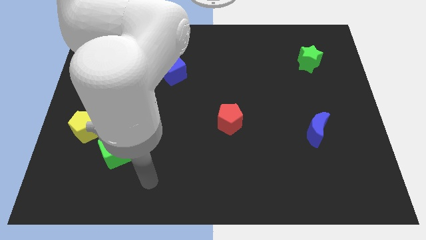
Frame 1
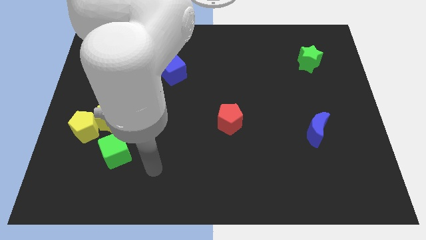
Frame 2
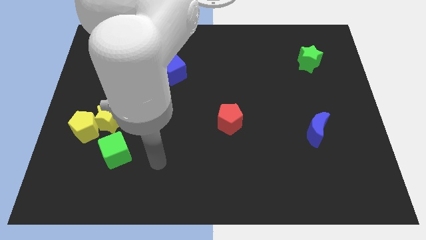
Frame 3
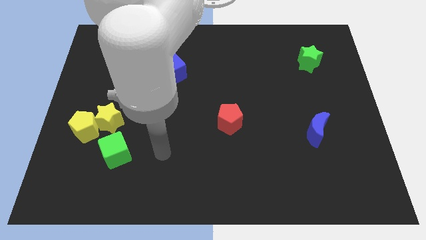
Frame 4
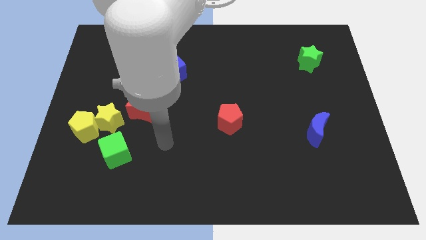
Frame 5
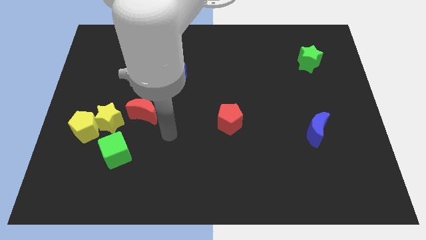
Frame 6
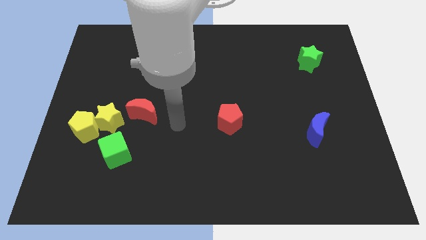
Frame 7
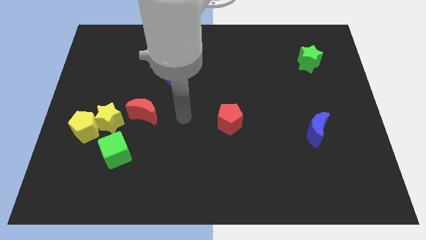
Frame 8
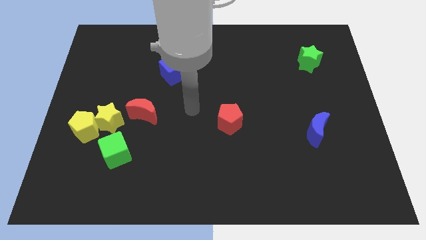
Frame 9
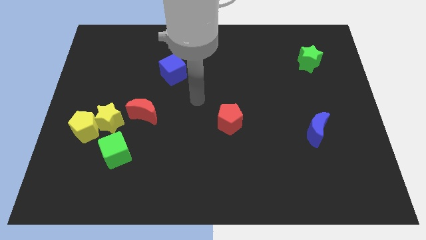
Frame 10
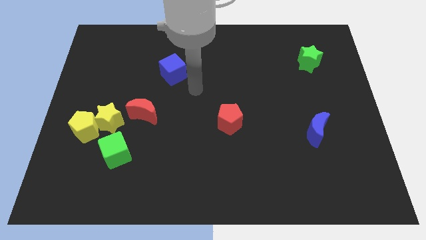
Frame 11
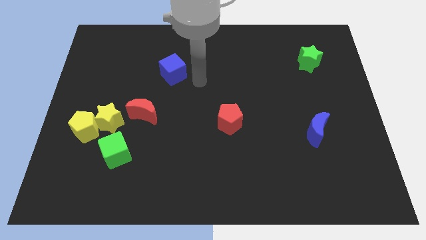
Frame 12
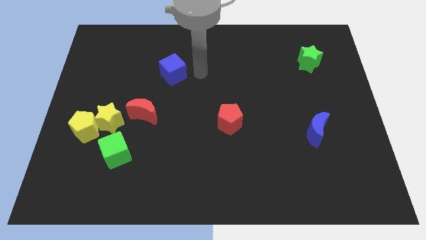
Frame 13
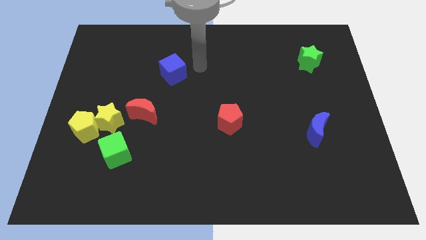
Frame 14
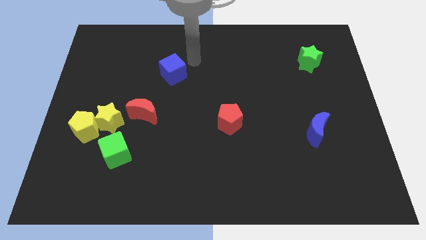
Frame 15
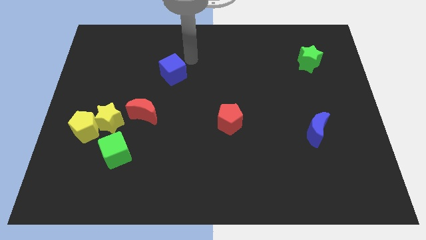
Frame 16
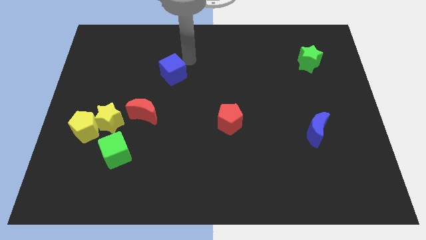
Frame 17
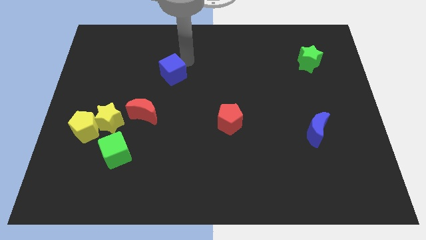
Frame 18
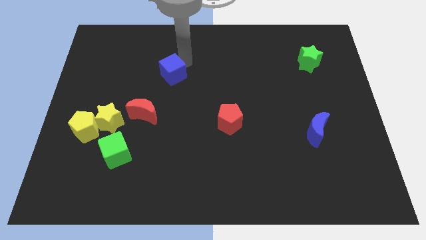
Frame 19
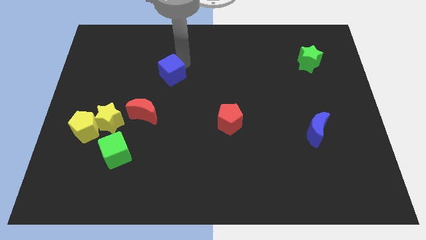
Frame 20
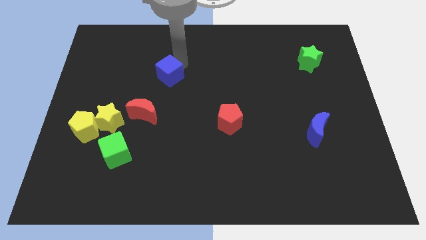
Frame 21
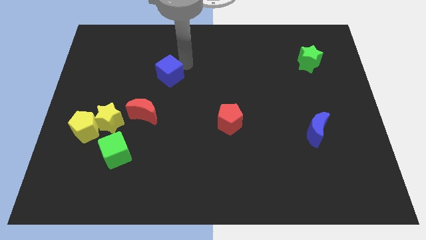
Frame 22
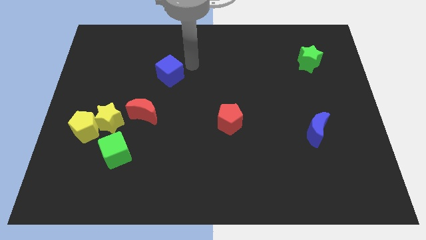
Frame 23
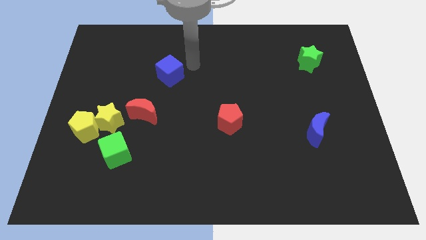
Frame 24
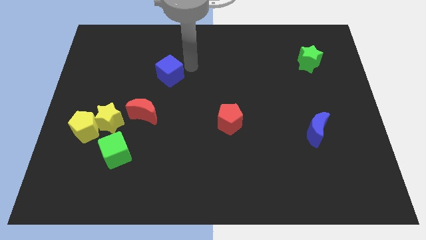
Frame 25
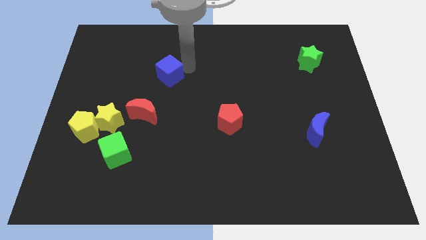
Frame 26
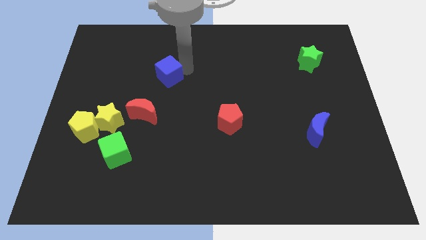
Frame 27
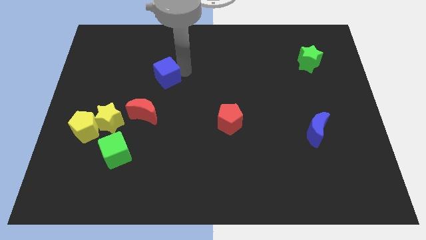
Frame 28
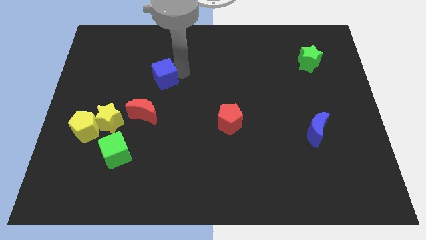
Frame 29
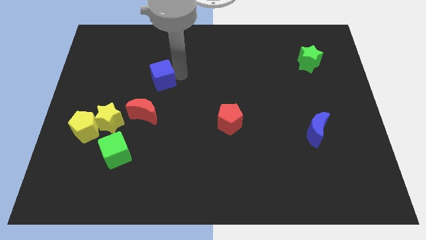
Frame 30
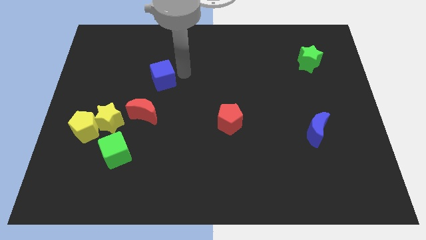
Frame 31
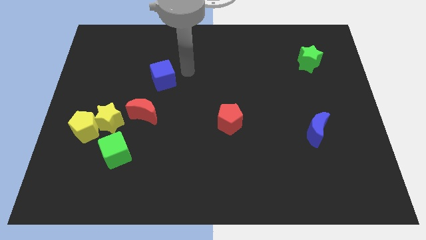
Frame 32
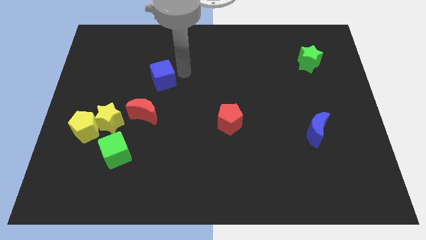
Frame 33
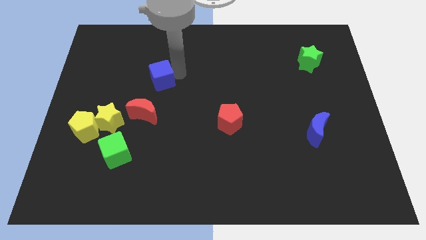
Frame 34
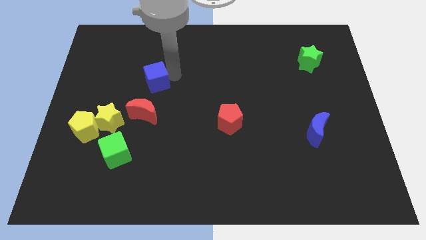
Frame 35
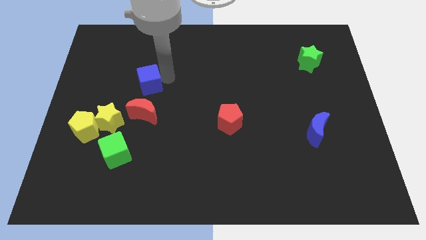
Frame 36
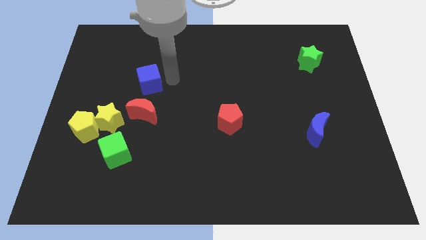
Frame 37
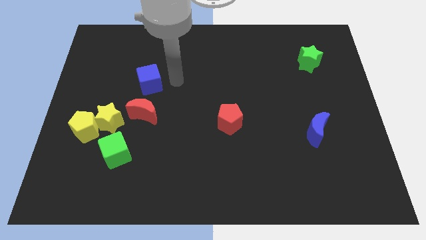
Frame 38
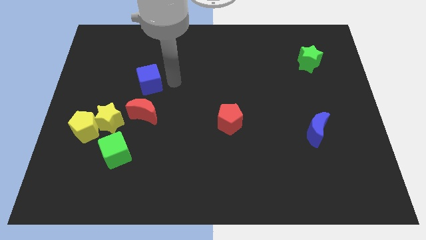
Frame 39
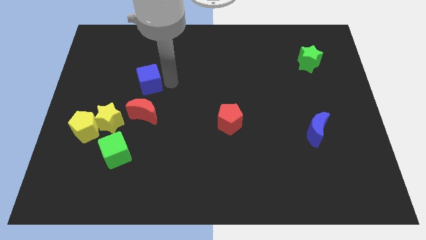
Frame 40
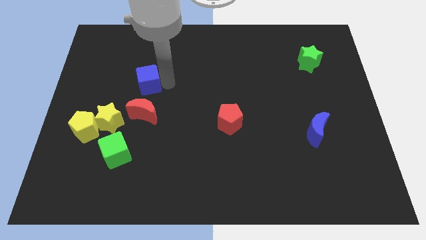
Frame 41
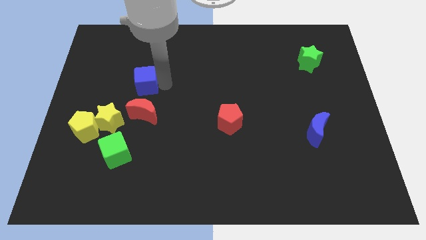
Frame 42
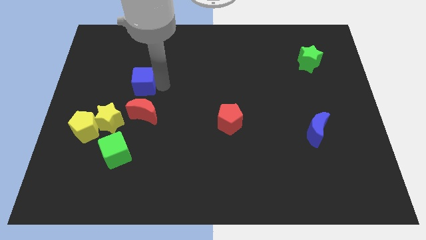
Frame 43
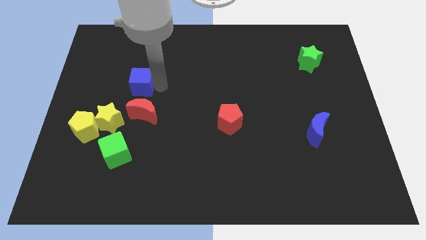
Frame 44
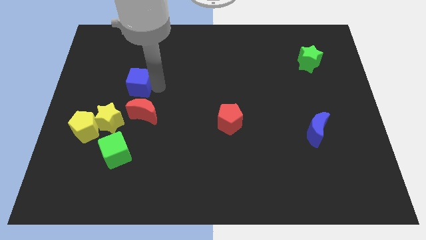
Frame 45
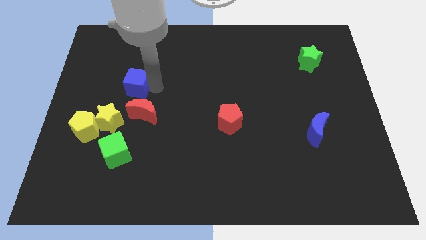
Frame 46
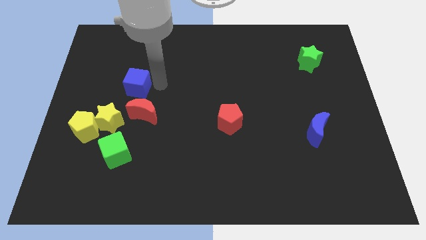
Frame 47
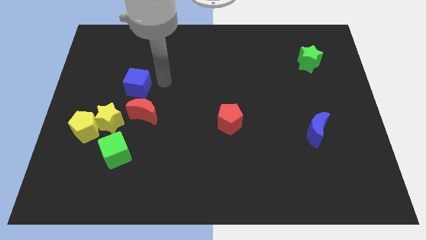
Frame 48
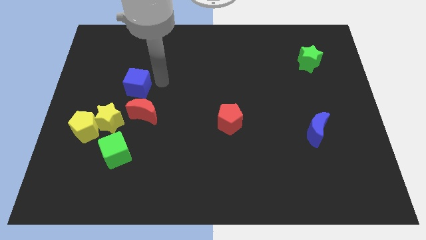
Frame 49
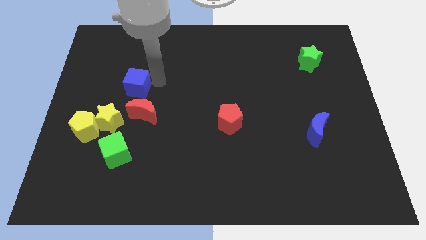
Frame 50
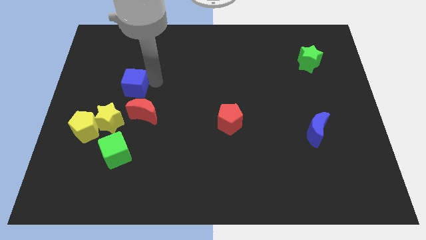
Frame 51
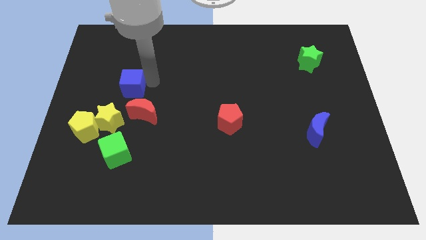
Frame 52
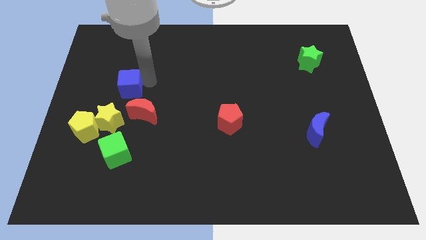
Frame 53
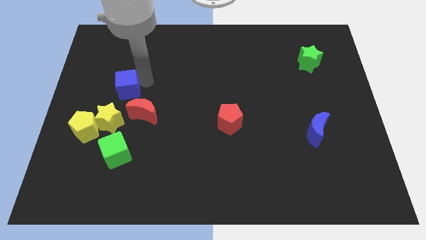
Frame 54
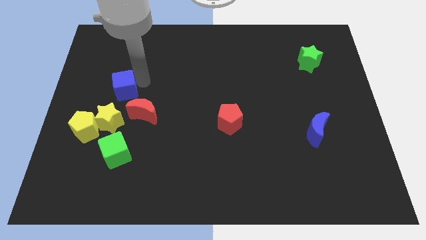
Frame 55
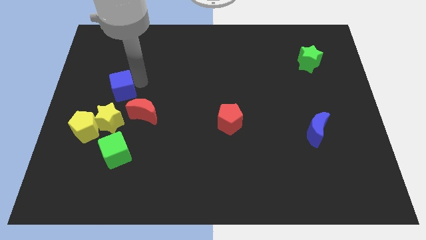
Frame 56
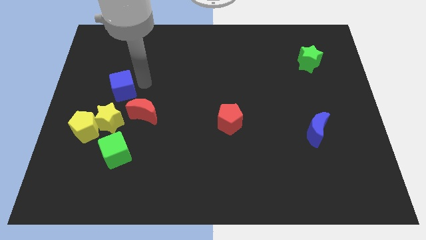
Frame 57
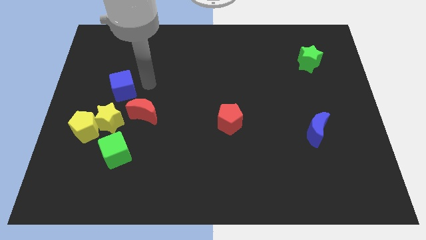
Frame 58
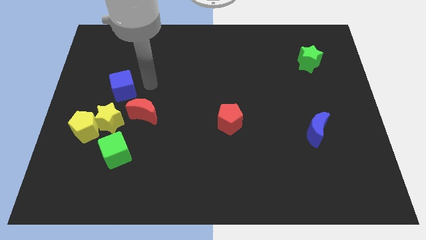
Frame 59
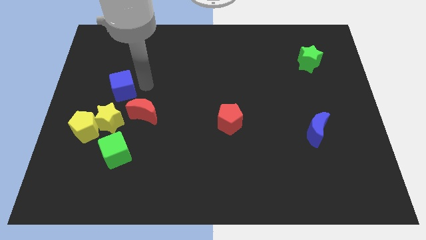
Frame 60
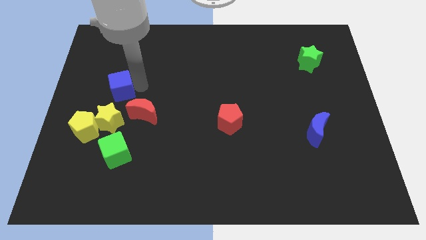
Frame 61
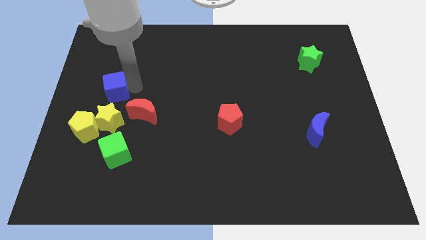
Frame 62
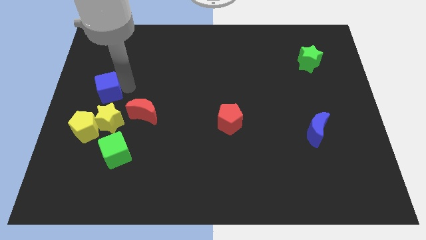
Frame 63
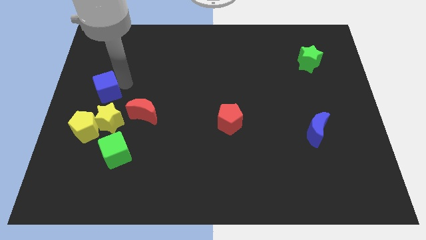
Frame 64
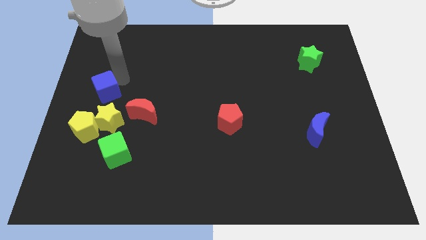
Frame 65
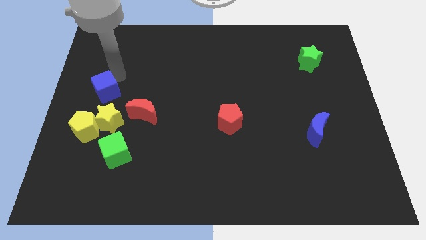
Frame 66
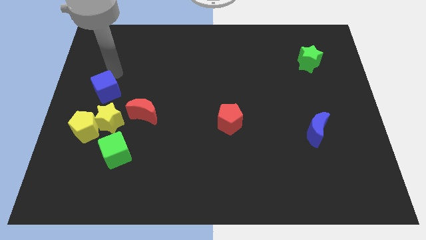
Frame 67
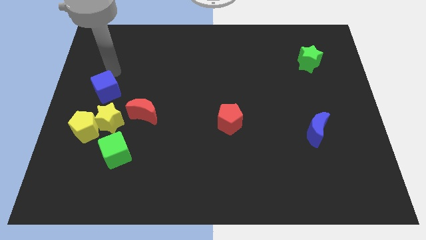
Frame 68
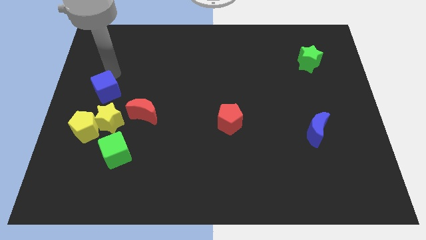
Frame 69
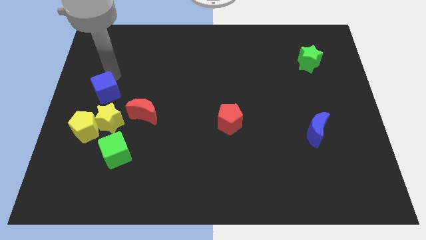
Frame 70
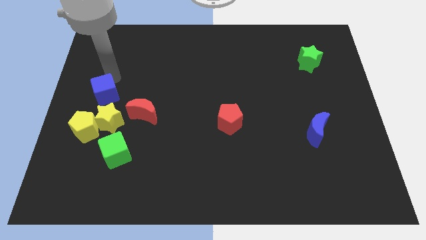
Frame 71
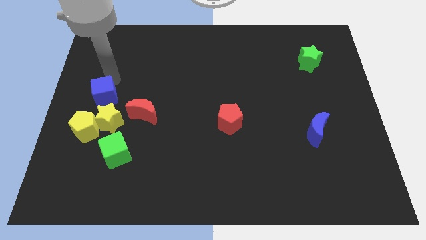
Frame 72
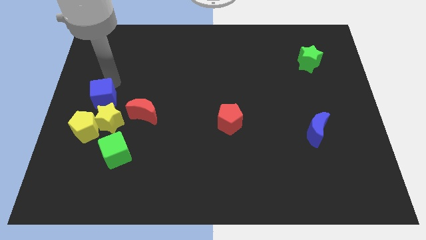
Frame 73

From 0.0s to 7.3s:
slide the blue cube just left of the red moon

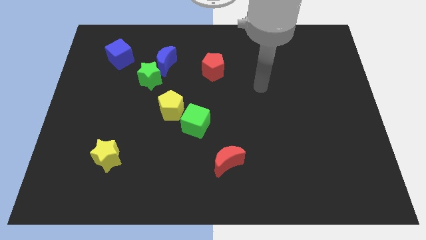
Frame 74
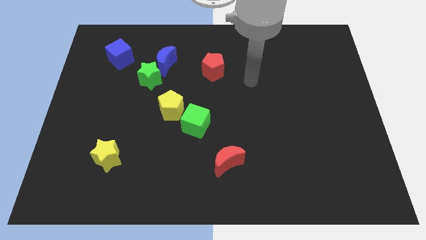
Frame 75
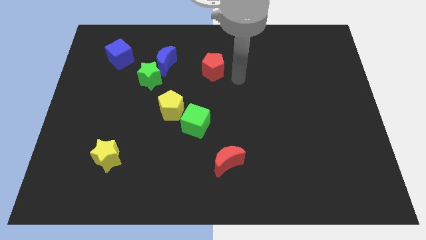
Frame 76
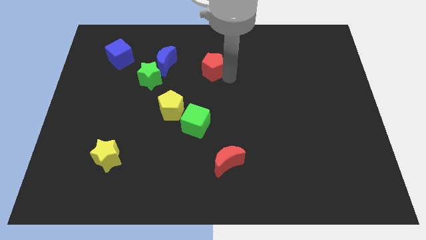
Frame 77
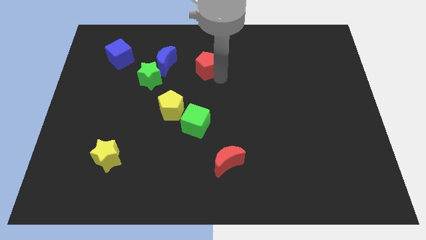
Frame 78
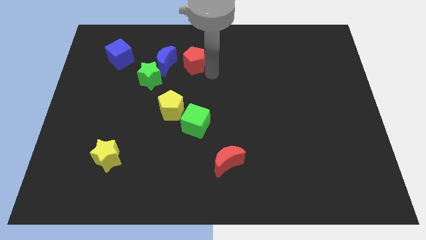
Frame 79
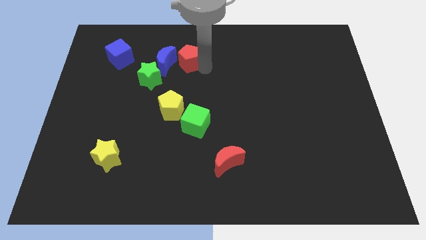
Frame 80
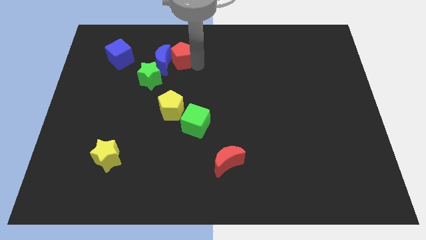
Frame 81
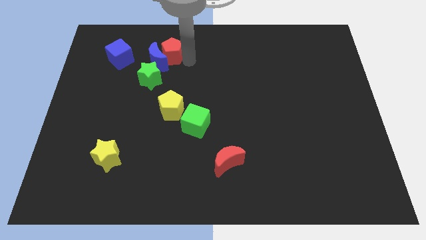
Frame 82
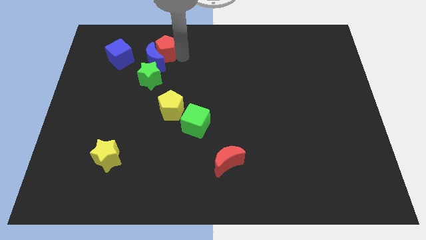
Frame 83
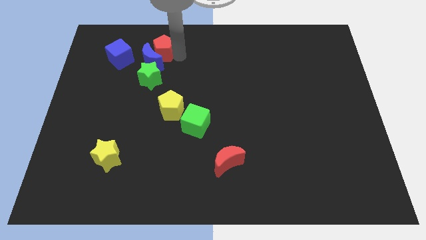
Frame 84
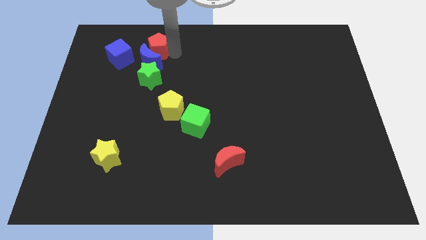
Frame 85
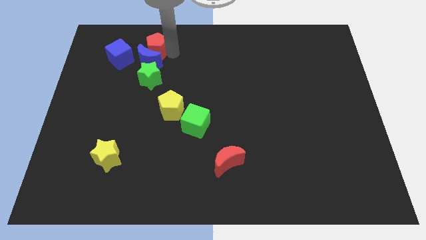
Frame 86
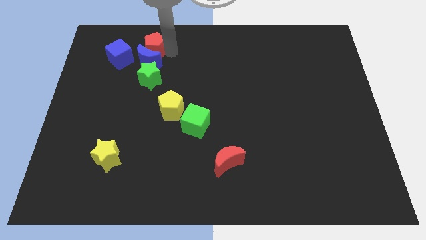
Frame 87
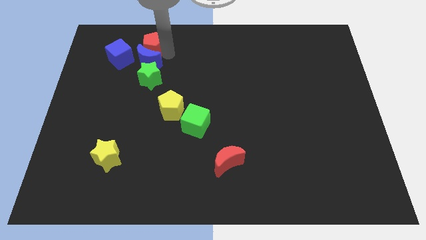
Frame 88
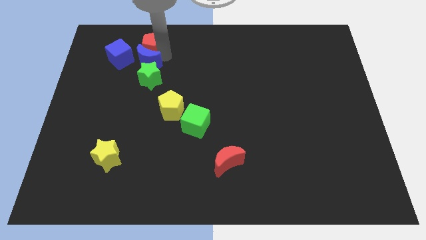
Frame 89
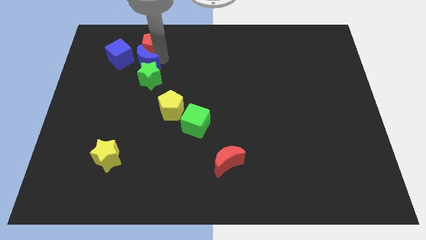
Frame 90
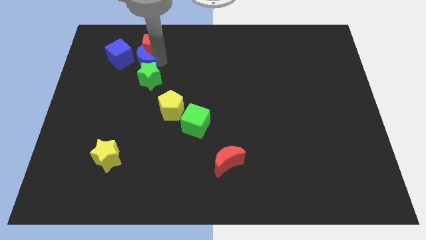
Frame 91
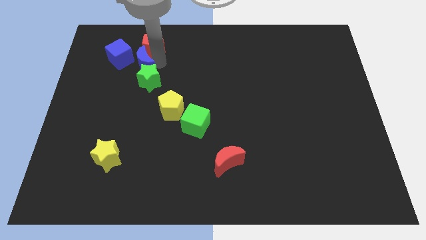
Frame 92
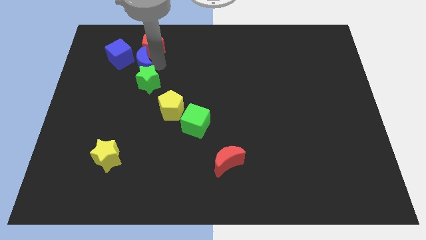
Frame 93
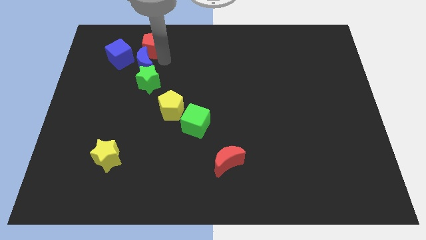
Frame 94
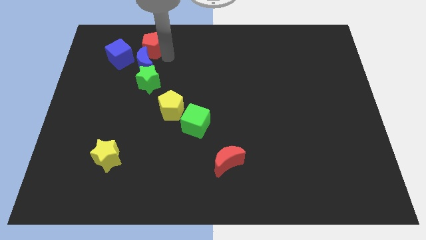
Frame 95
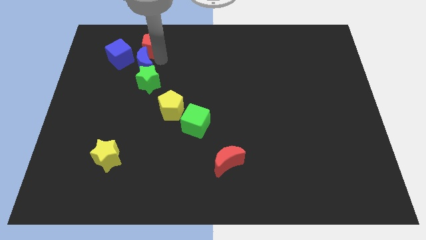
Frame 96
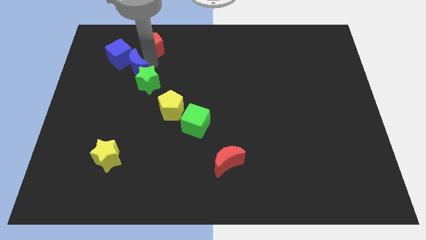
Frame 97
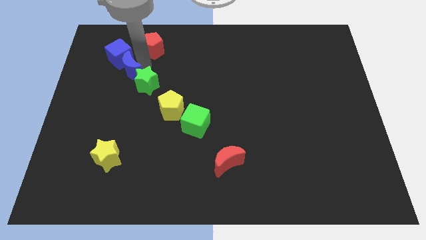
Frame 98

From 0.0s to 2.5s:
put the blue moon left of the green star
